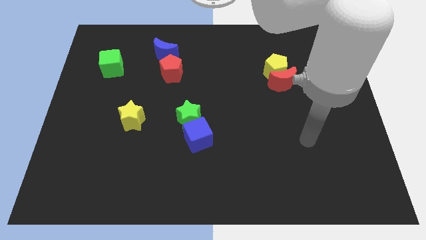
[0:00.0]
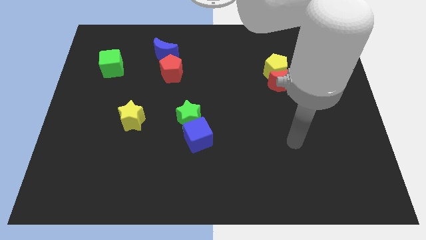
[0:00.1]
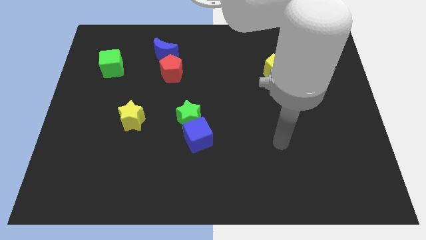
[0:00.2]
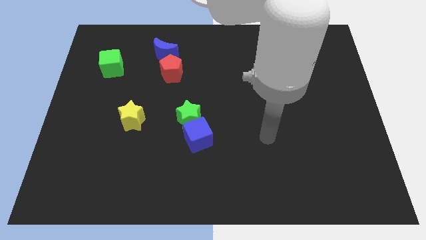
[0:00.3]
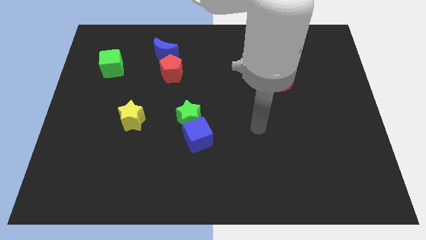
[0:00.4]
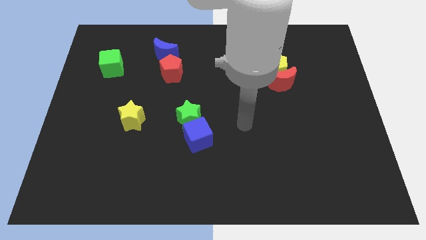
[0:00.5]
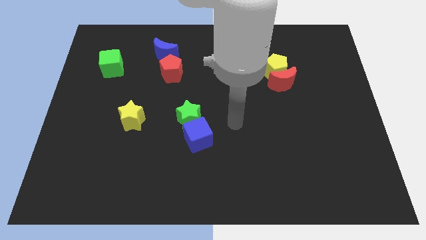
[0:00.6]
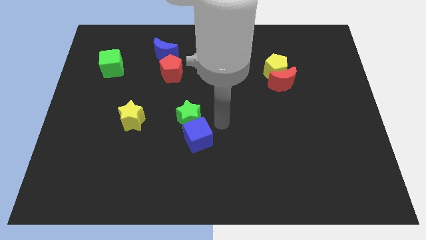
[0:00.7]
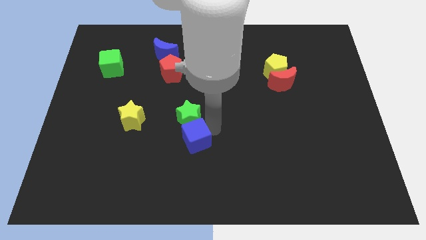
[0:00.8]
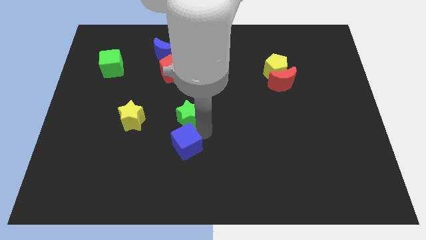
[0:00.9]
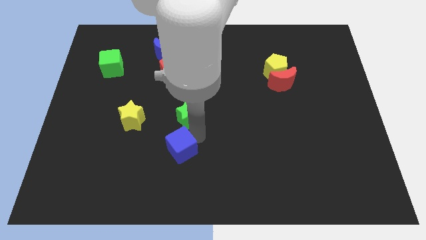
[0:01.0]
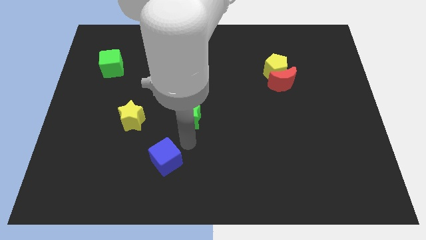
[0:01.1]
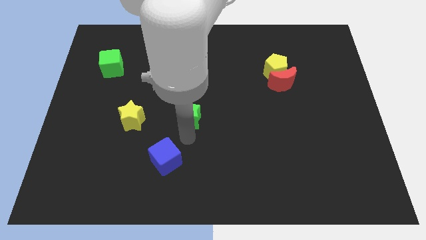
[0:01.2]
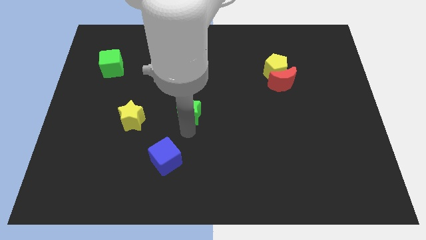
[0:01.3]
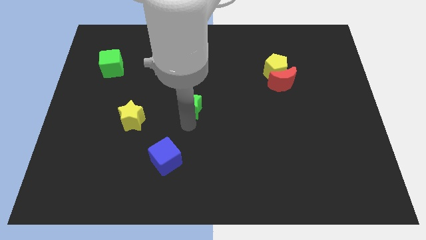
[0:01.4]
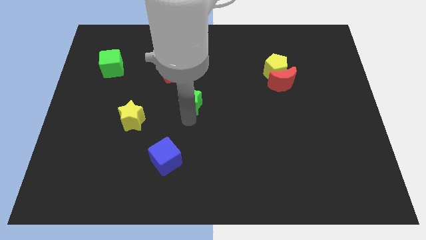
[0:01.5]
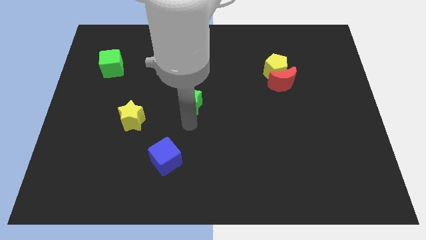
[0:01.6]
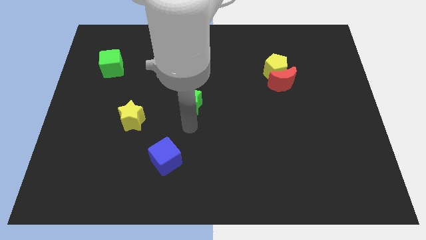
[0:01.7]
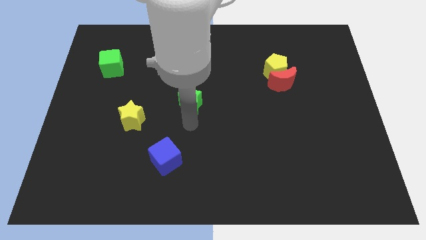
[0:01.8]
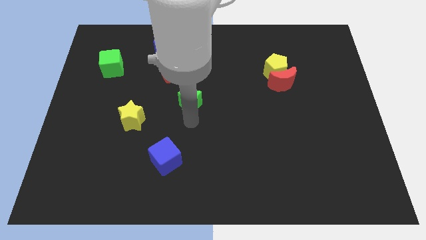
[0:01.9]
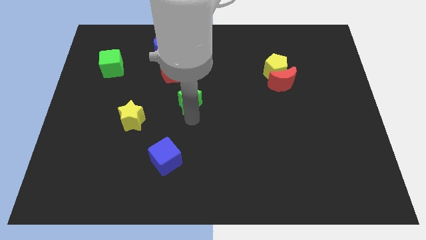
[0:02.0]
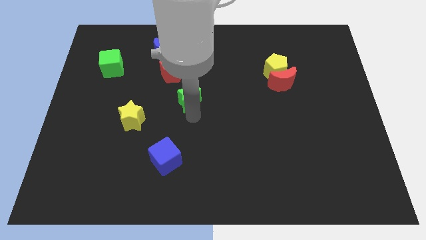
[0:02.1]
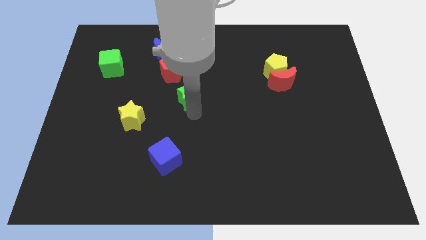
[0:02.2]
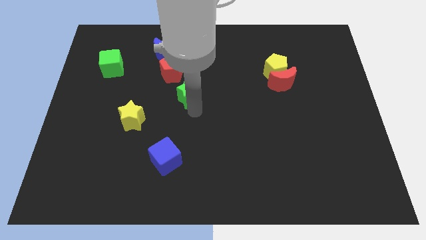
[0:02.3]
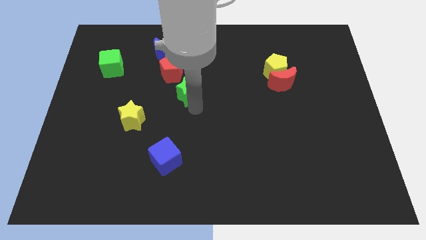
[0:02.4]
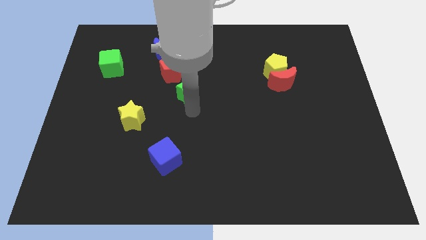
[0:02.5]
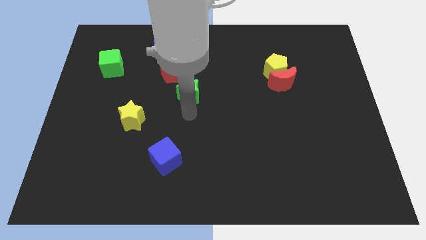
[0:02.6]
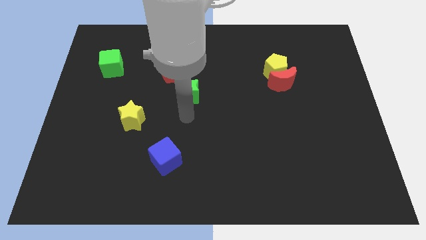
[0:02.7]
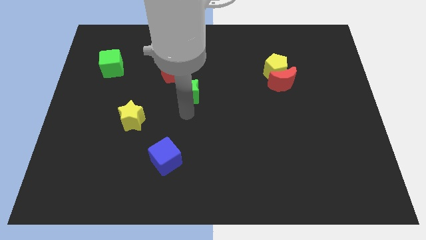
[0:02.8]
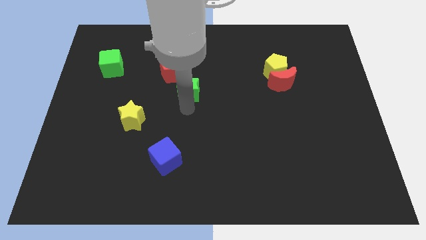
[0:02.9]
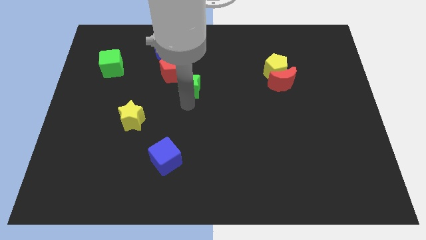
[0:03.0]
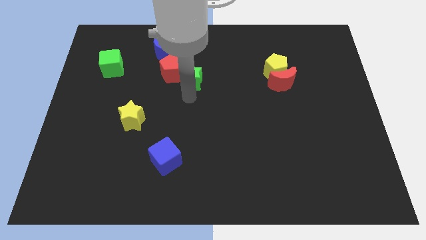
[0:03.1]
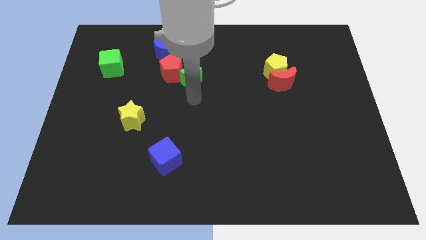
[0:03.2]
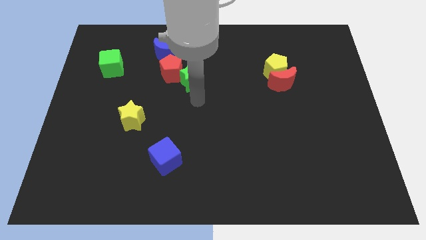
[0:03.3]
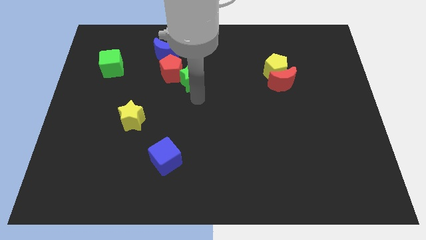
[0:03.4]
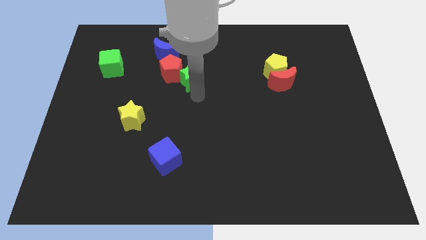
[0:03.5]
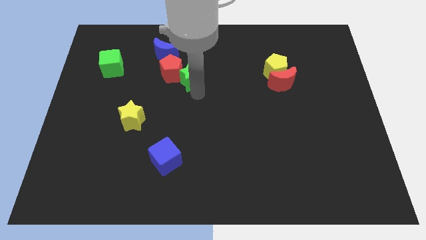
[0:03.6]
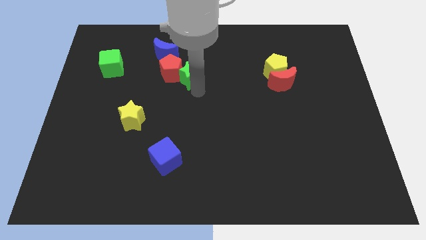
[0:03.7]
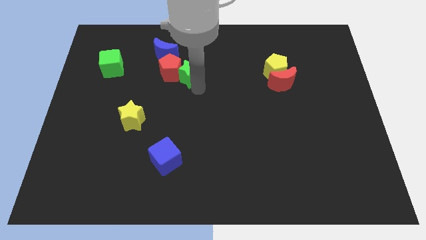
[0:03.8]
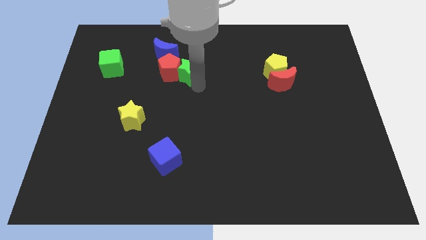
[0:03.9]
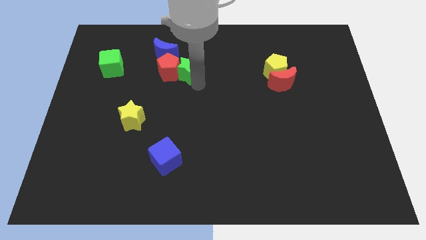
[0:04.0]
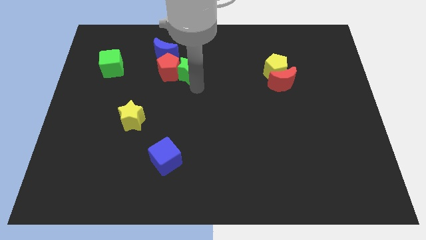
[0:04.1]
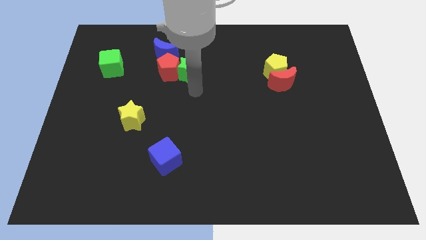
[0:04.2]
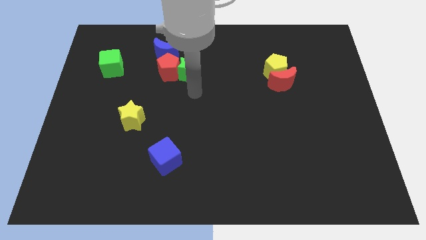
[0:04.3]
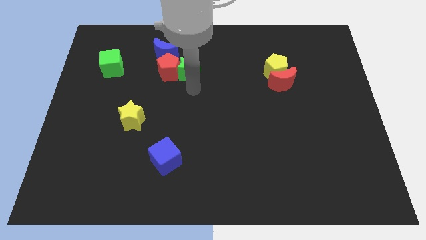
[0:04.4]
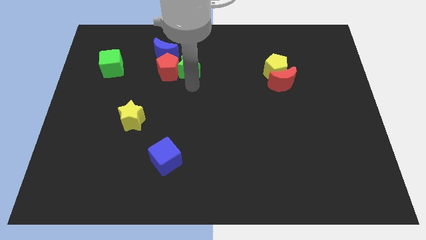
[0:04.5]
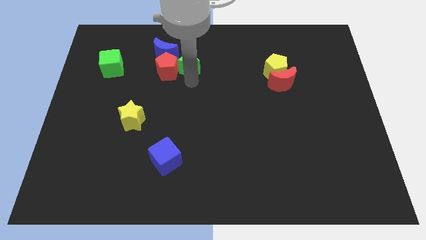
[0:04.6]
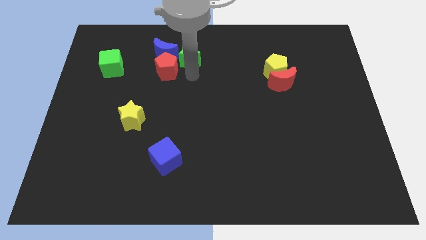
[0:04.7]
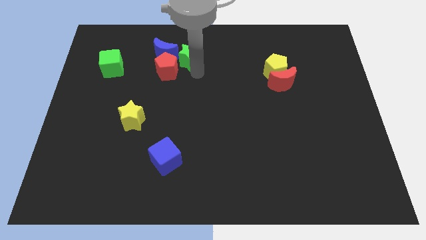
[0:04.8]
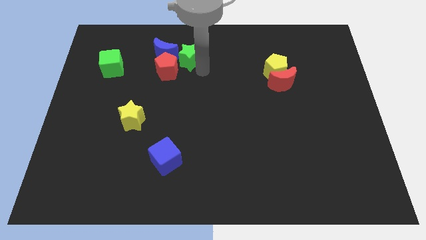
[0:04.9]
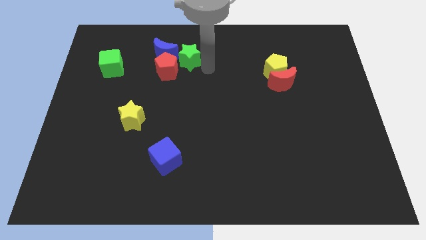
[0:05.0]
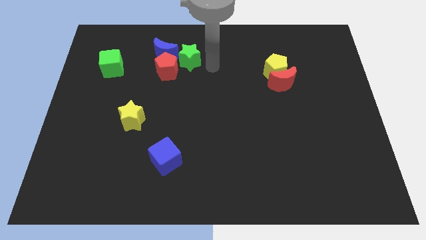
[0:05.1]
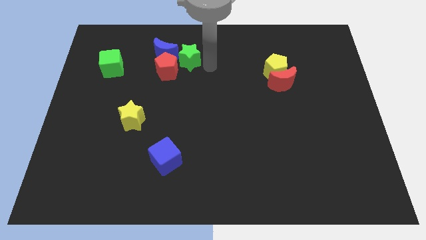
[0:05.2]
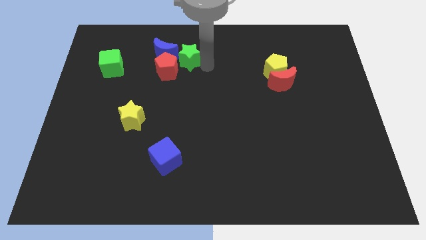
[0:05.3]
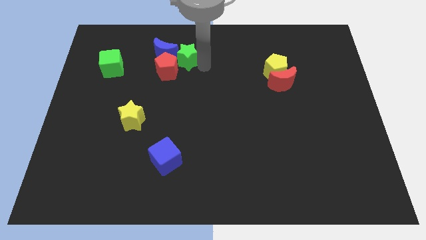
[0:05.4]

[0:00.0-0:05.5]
move the green star close to the blue moon

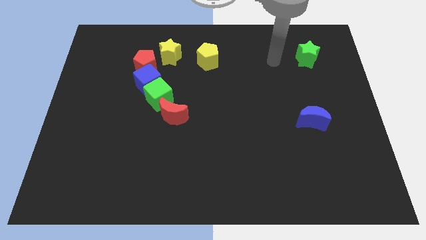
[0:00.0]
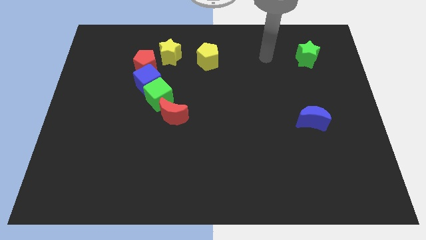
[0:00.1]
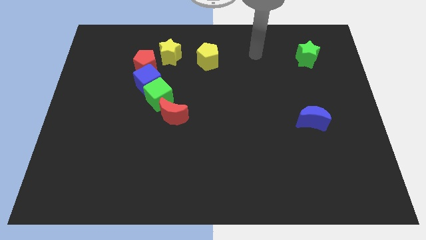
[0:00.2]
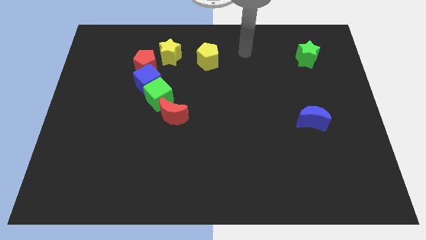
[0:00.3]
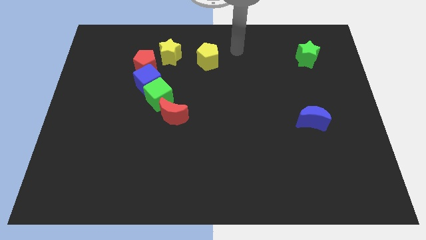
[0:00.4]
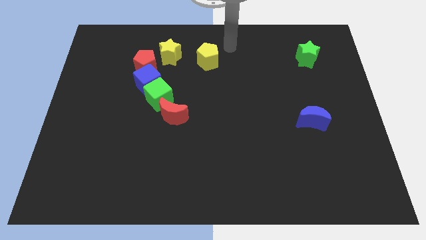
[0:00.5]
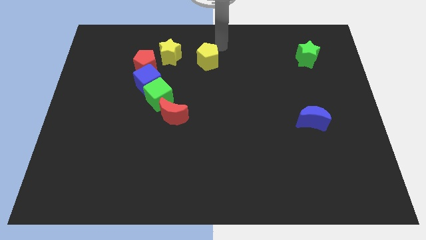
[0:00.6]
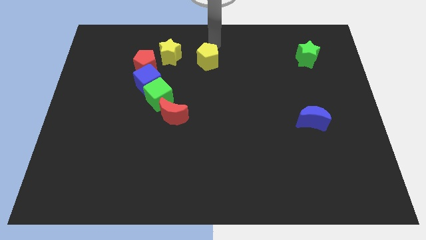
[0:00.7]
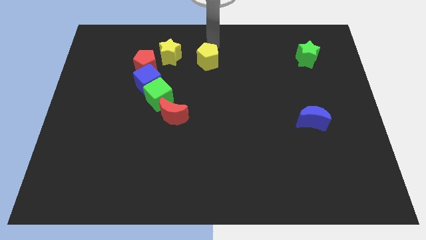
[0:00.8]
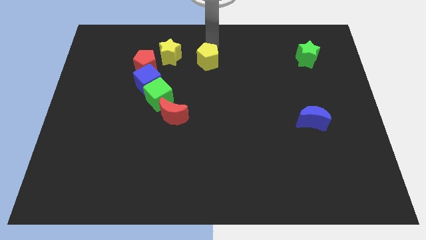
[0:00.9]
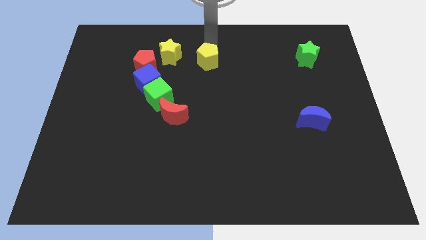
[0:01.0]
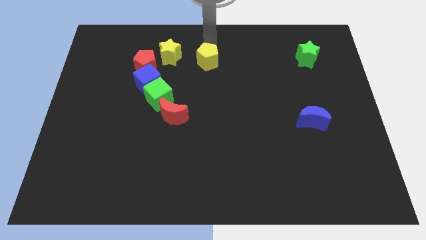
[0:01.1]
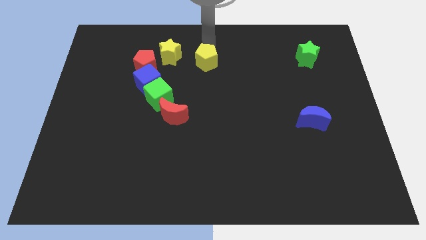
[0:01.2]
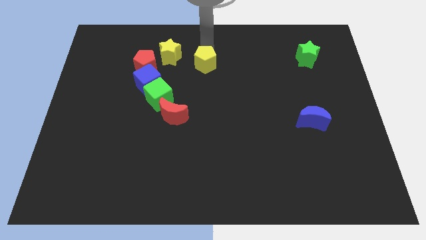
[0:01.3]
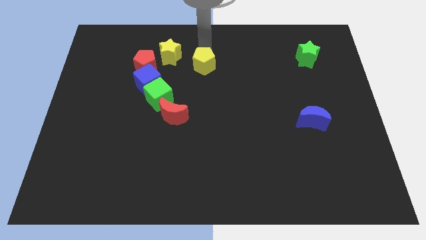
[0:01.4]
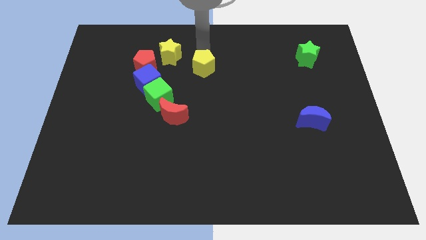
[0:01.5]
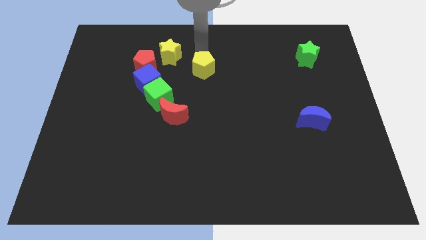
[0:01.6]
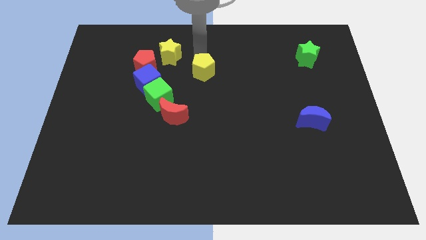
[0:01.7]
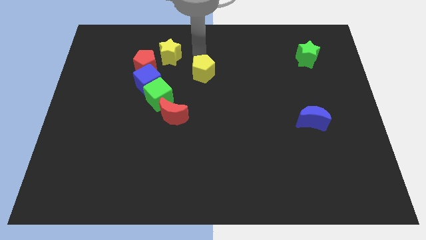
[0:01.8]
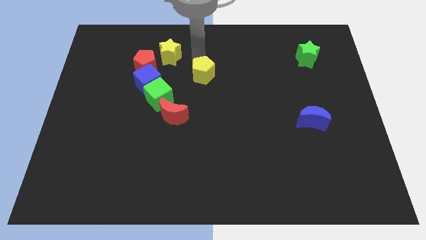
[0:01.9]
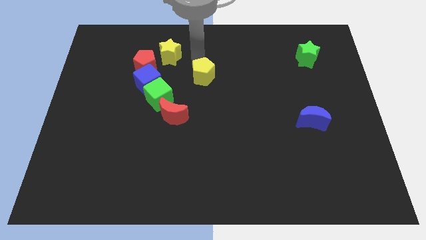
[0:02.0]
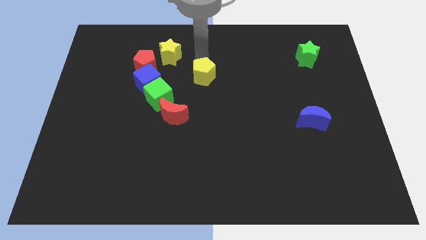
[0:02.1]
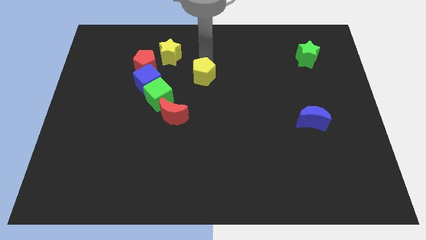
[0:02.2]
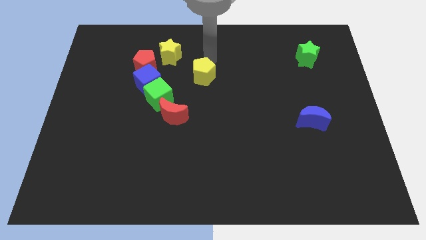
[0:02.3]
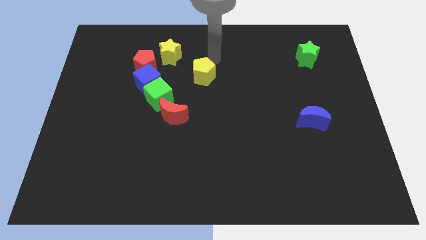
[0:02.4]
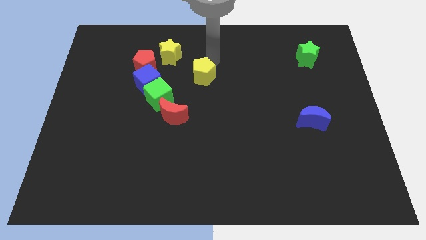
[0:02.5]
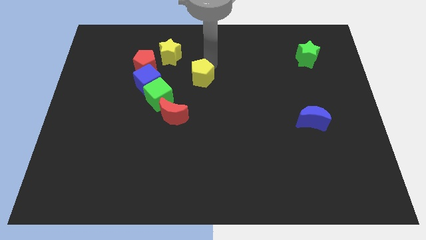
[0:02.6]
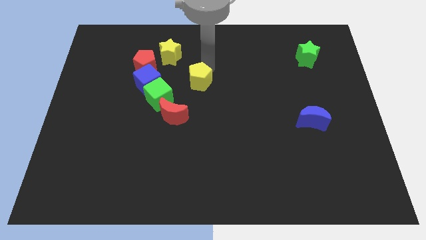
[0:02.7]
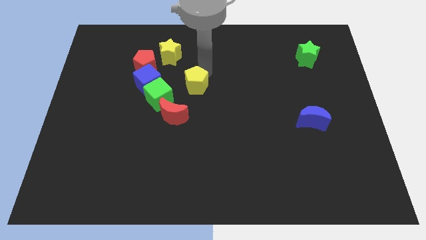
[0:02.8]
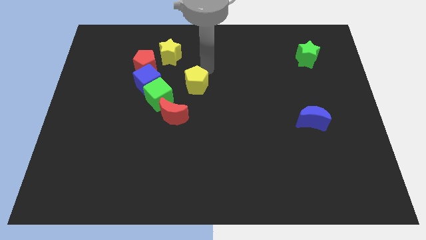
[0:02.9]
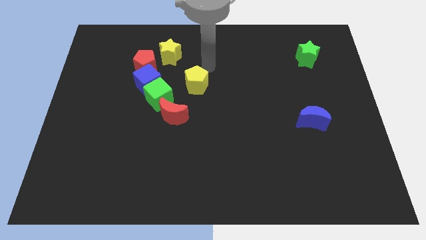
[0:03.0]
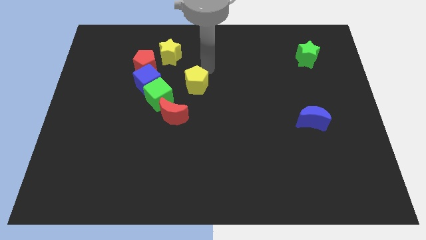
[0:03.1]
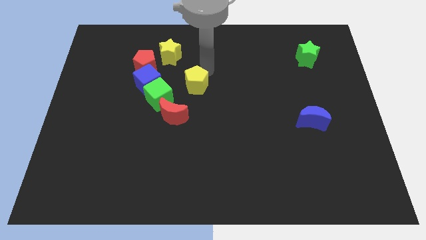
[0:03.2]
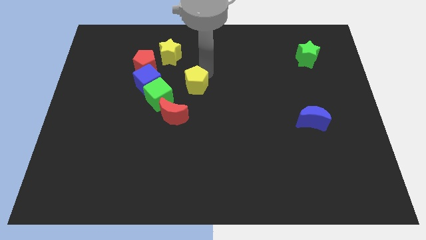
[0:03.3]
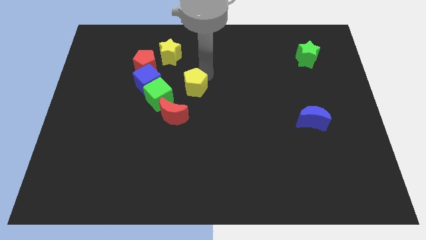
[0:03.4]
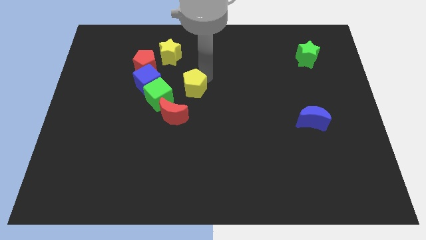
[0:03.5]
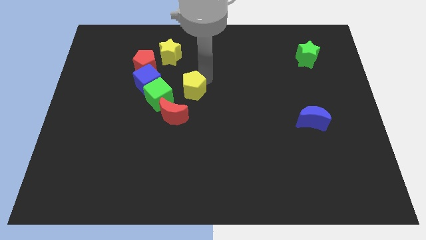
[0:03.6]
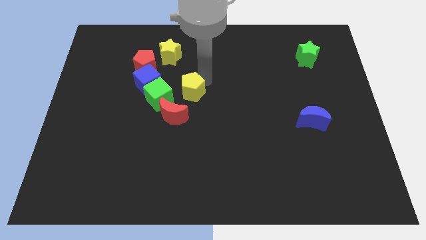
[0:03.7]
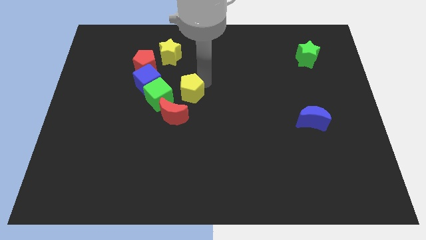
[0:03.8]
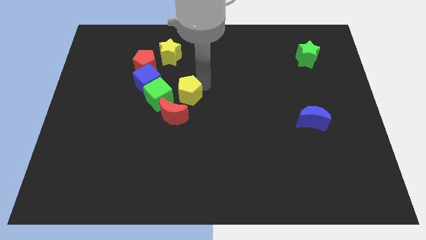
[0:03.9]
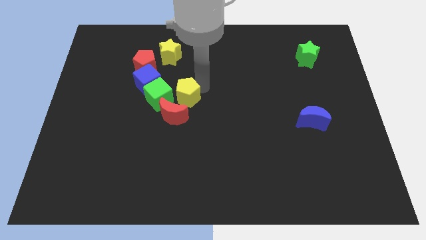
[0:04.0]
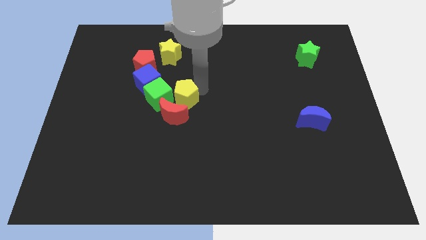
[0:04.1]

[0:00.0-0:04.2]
push the yellow pentagon close to the red moon
